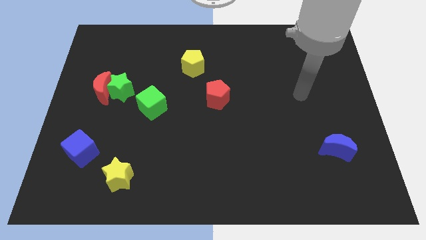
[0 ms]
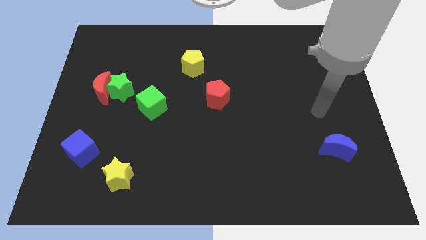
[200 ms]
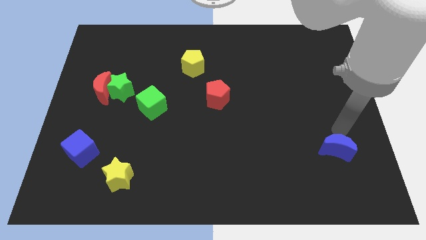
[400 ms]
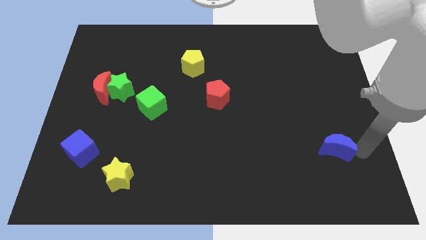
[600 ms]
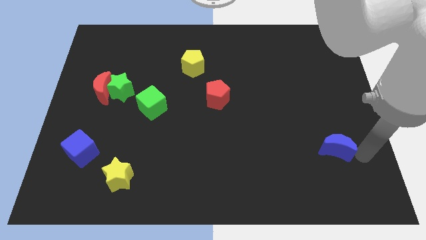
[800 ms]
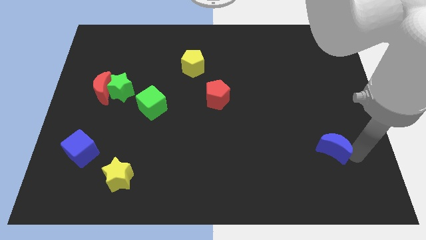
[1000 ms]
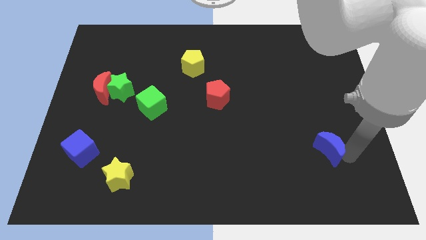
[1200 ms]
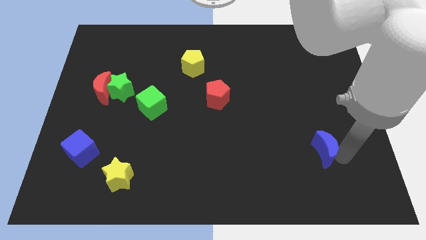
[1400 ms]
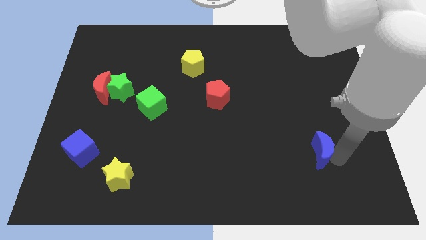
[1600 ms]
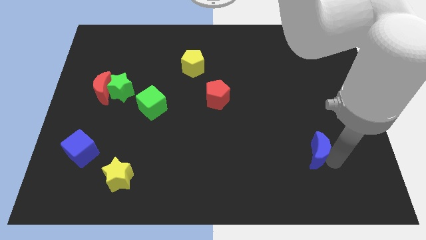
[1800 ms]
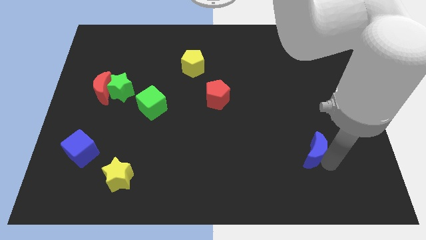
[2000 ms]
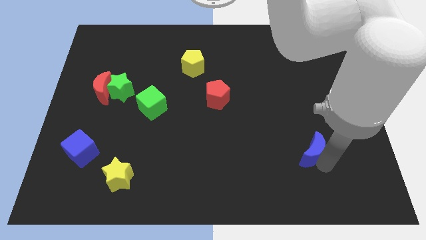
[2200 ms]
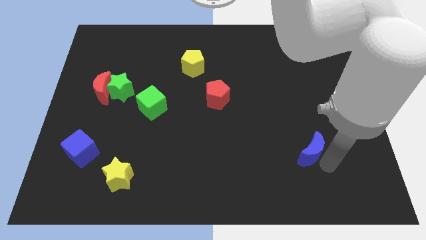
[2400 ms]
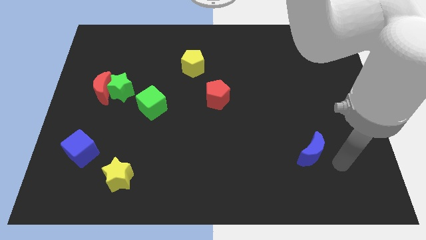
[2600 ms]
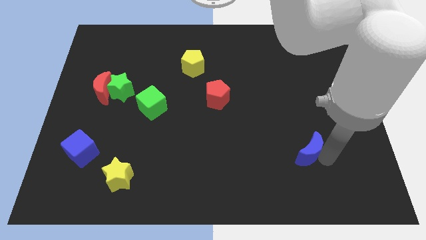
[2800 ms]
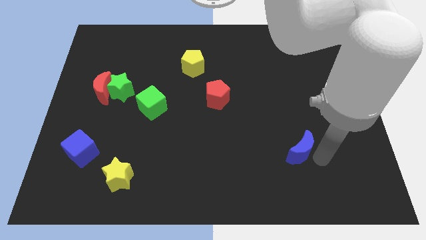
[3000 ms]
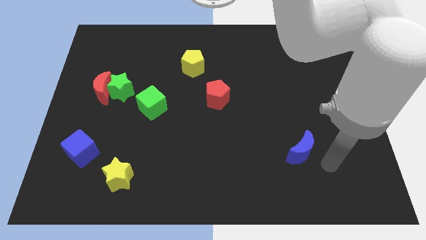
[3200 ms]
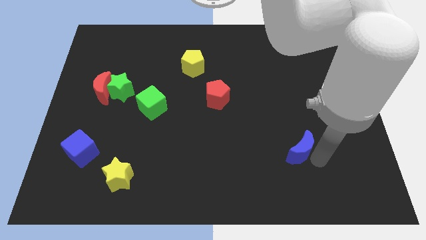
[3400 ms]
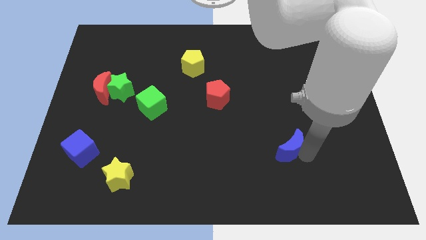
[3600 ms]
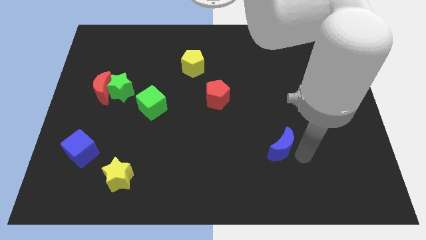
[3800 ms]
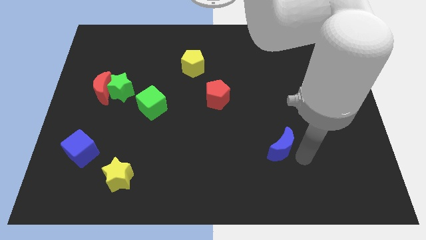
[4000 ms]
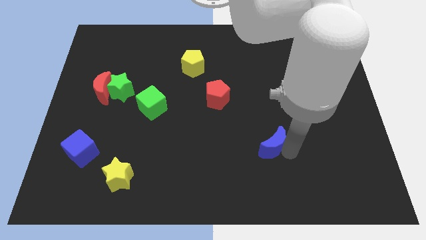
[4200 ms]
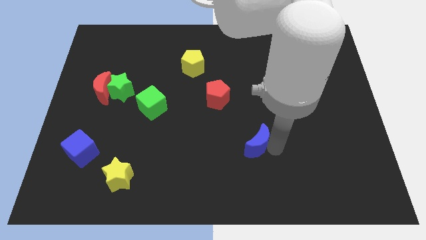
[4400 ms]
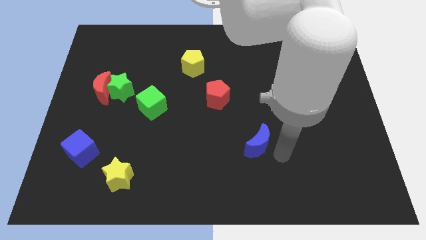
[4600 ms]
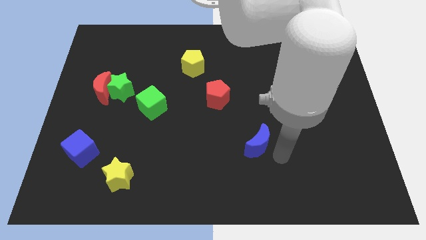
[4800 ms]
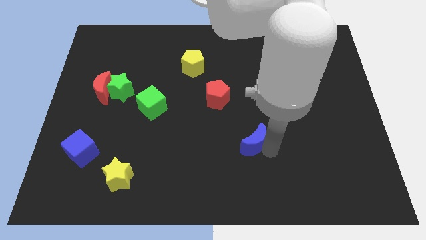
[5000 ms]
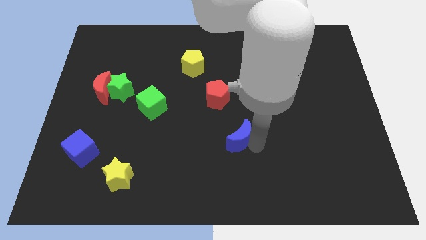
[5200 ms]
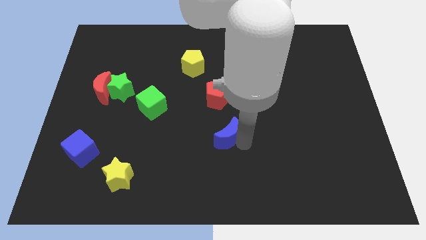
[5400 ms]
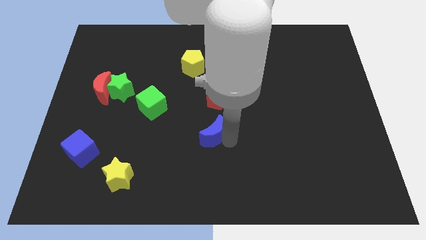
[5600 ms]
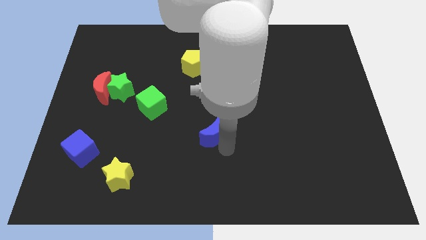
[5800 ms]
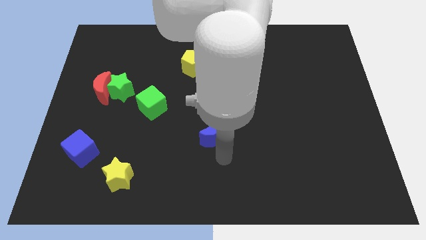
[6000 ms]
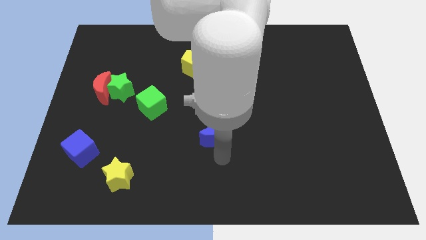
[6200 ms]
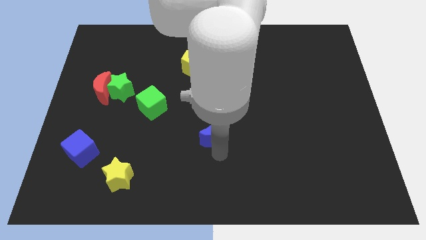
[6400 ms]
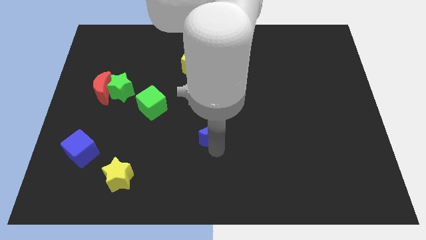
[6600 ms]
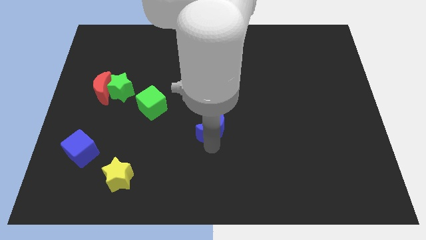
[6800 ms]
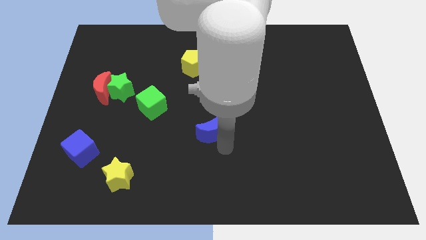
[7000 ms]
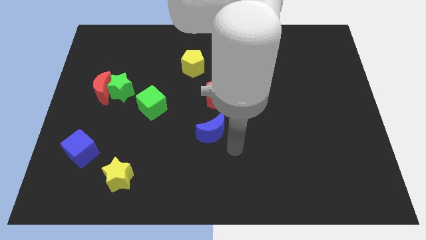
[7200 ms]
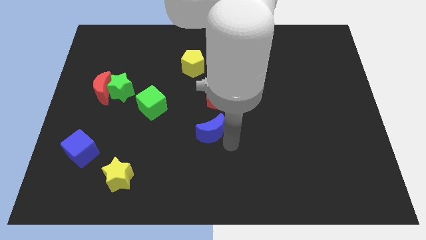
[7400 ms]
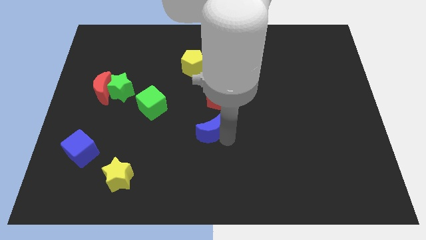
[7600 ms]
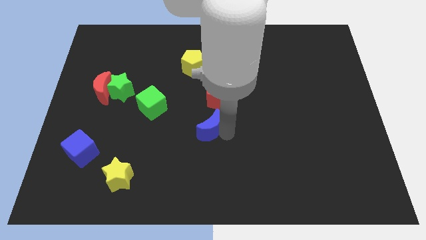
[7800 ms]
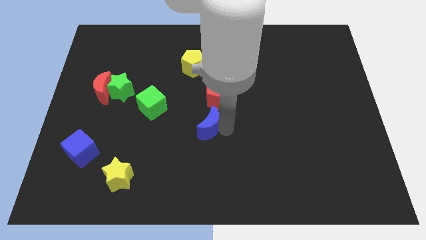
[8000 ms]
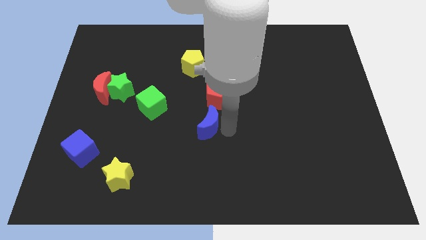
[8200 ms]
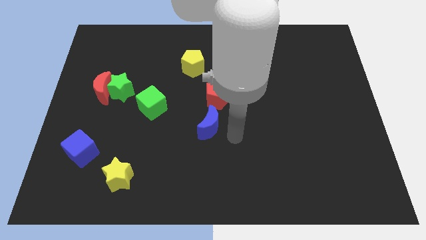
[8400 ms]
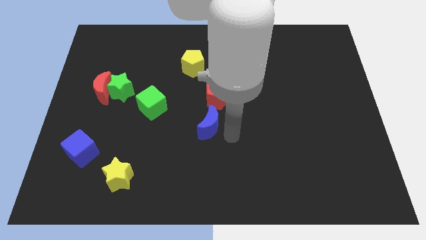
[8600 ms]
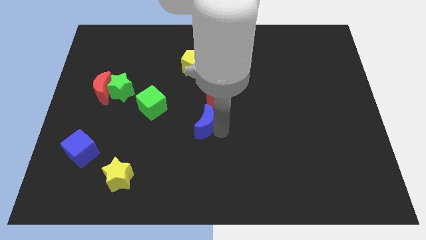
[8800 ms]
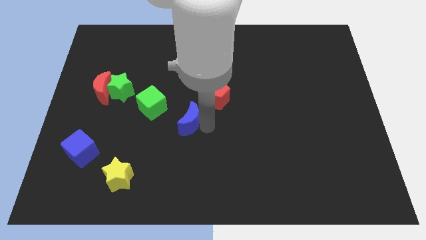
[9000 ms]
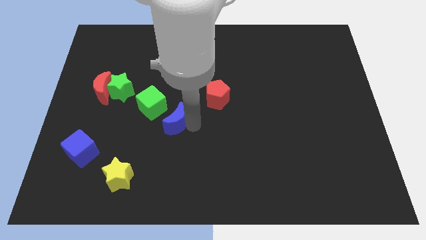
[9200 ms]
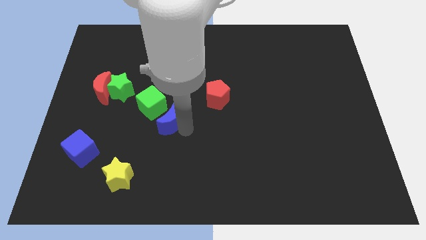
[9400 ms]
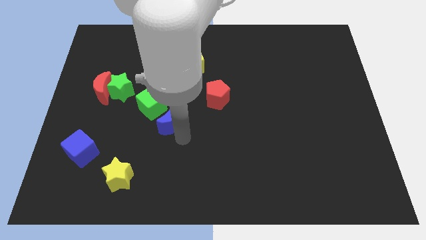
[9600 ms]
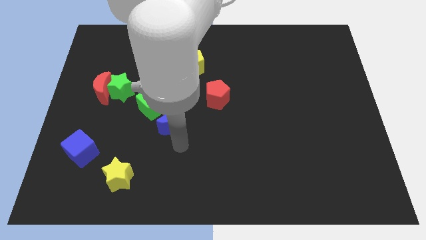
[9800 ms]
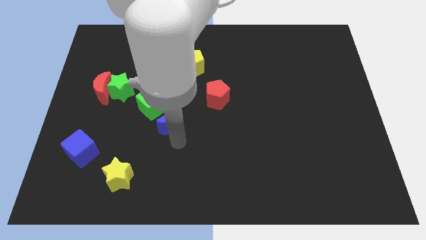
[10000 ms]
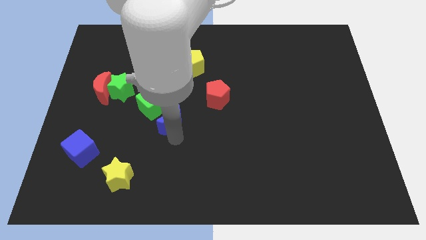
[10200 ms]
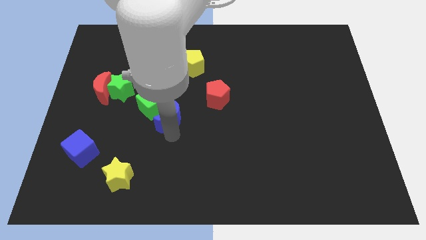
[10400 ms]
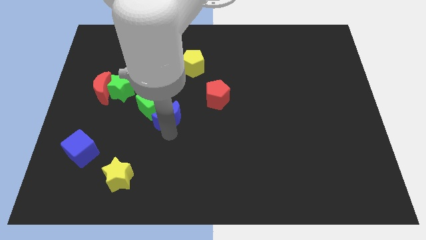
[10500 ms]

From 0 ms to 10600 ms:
slide the blue moon towards the green cube

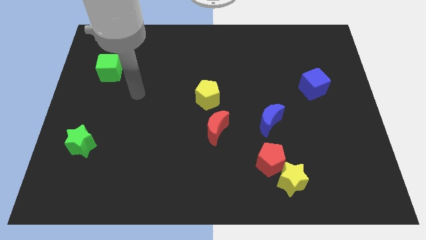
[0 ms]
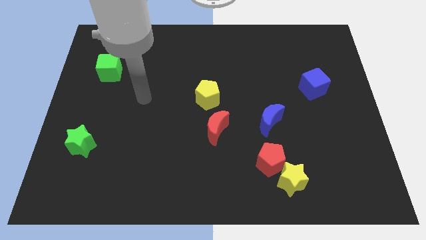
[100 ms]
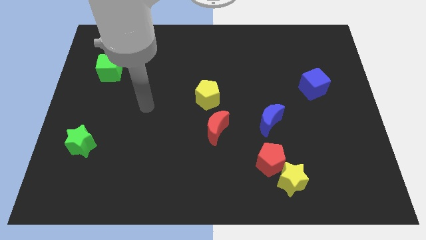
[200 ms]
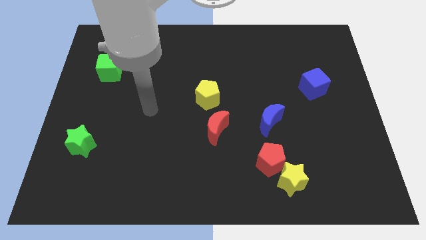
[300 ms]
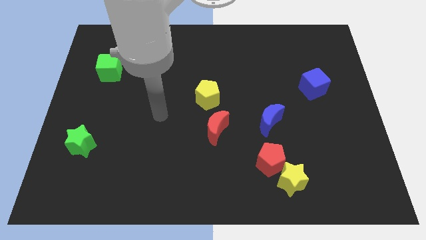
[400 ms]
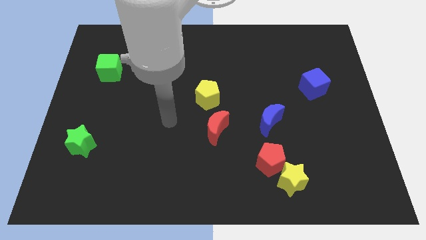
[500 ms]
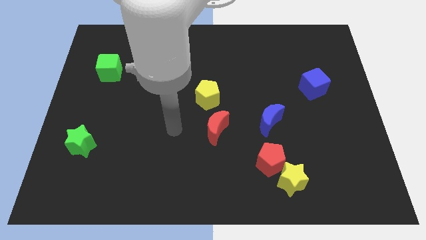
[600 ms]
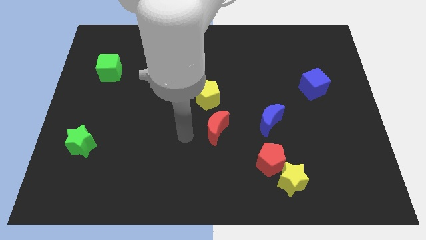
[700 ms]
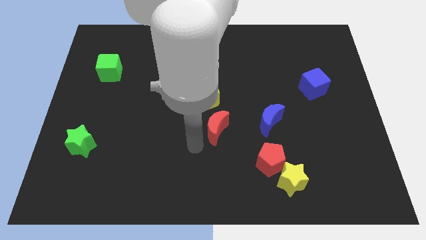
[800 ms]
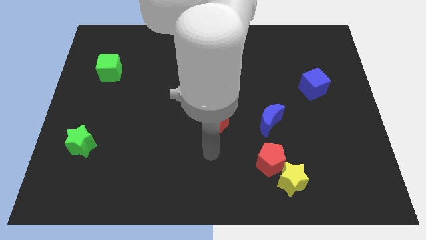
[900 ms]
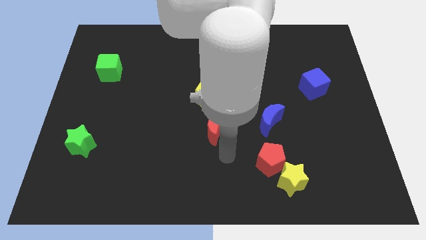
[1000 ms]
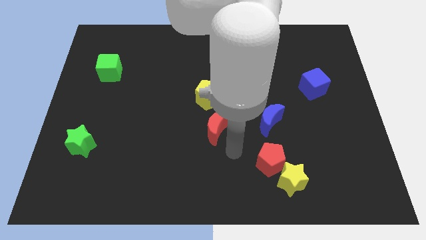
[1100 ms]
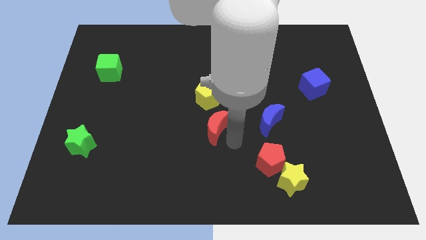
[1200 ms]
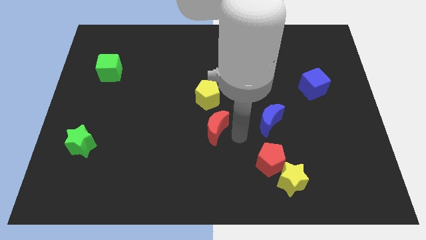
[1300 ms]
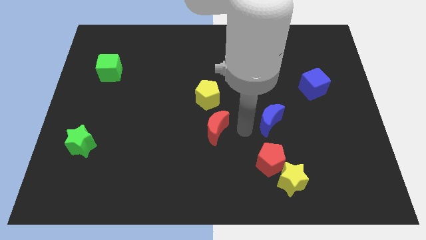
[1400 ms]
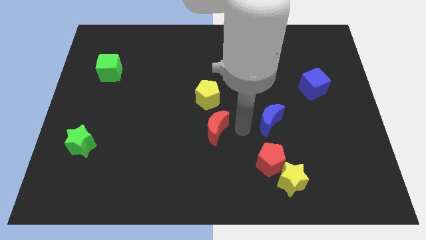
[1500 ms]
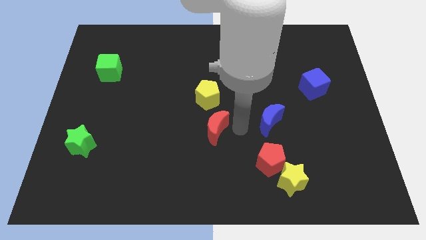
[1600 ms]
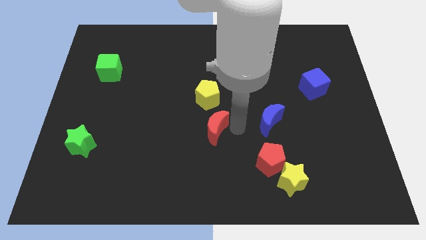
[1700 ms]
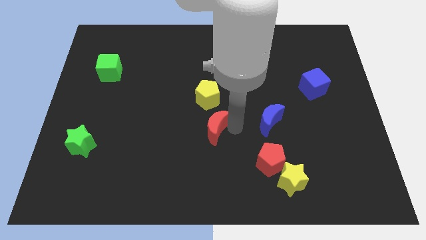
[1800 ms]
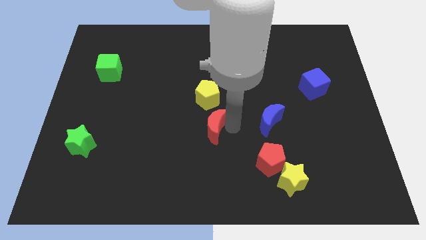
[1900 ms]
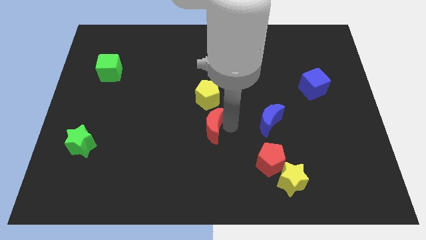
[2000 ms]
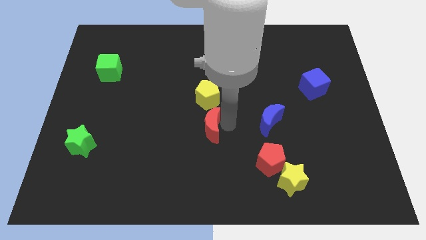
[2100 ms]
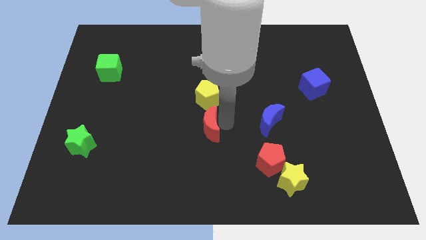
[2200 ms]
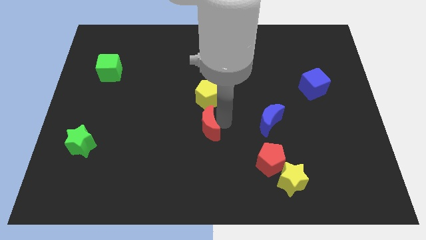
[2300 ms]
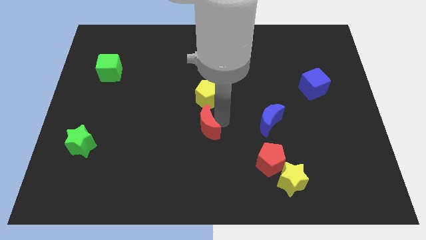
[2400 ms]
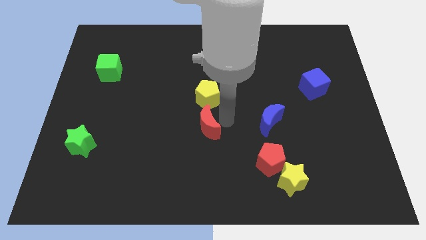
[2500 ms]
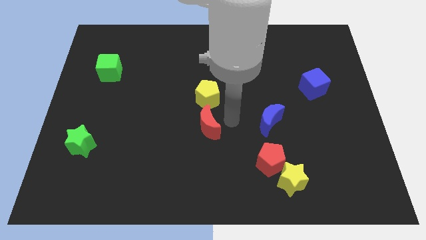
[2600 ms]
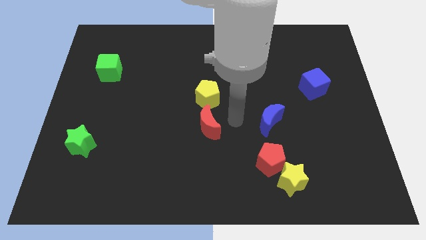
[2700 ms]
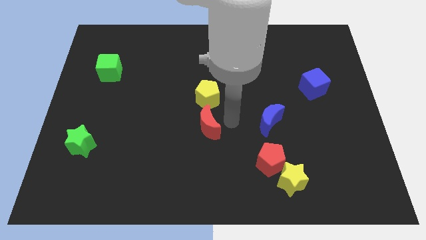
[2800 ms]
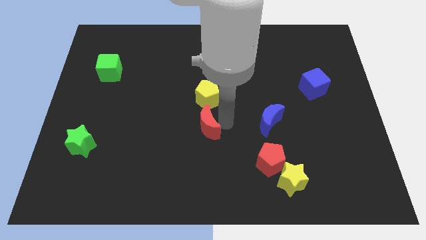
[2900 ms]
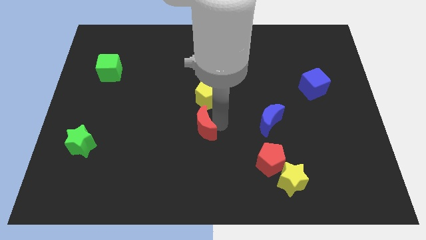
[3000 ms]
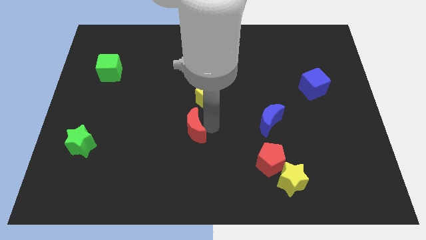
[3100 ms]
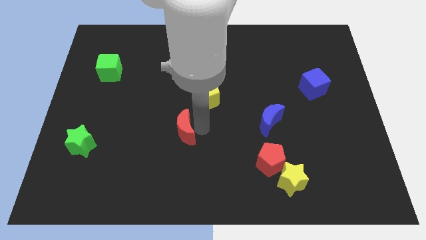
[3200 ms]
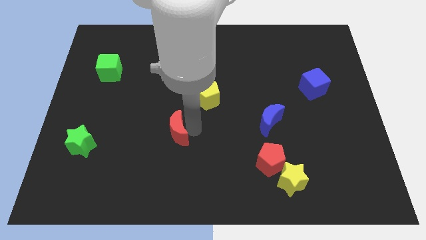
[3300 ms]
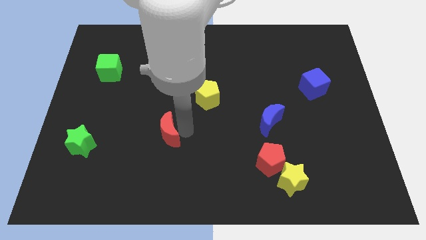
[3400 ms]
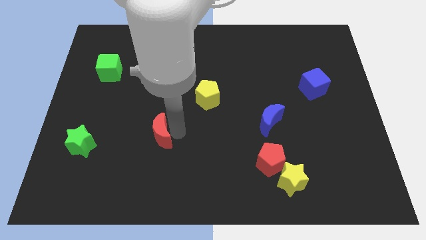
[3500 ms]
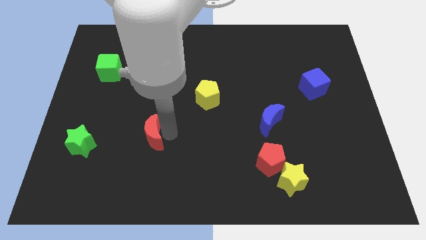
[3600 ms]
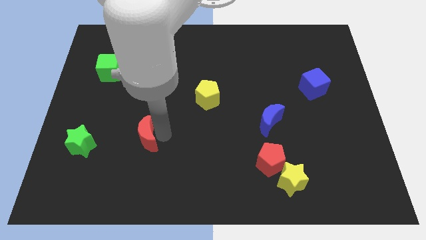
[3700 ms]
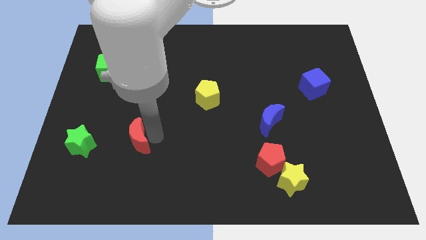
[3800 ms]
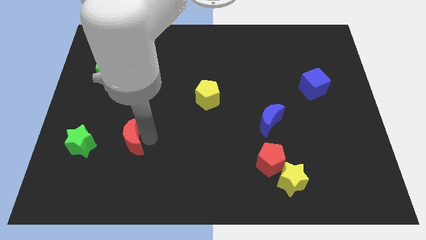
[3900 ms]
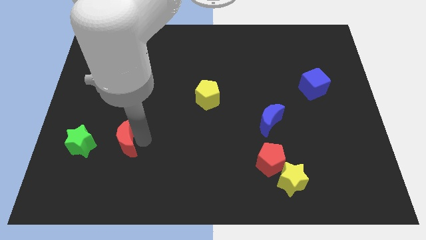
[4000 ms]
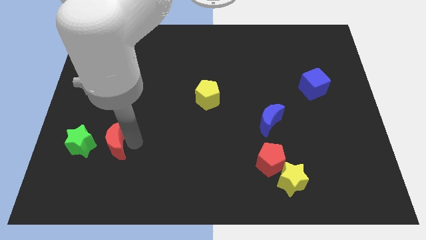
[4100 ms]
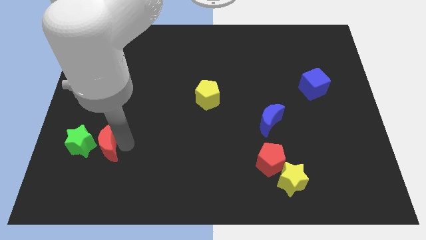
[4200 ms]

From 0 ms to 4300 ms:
put the red moon to the green star
